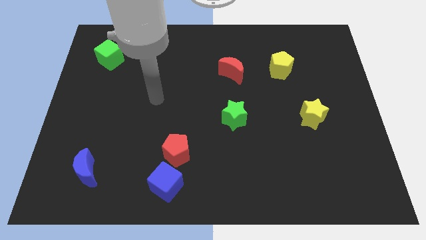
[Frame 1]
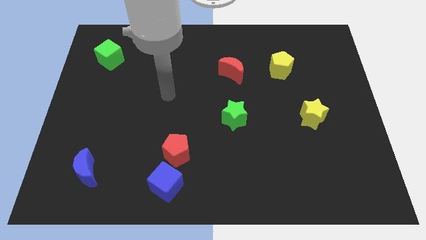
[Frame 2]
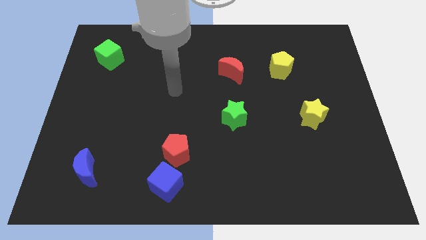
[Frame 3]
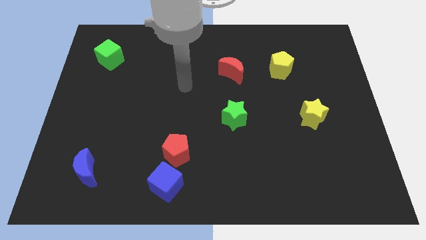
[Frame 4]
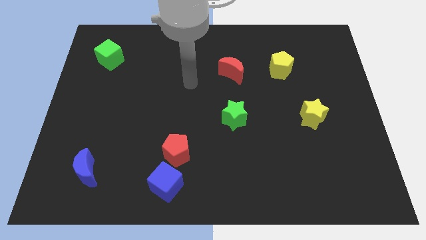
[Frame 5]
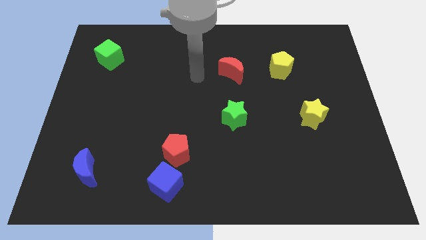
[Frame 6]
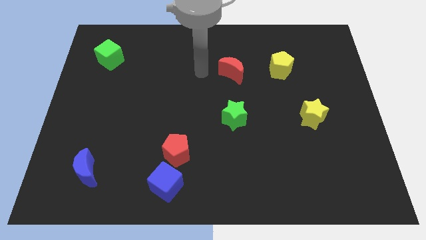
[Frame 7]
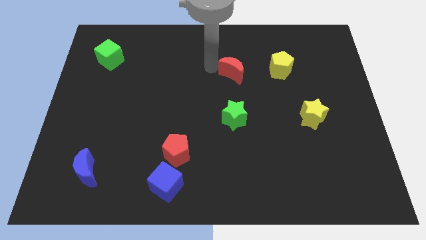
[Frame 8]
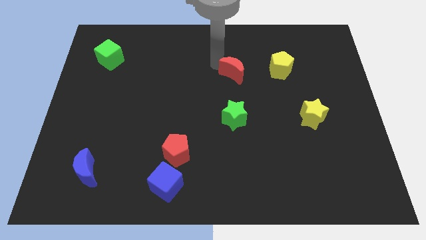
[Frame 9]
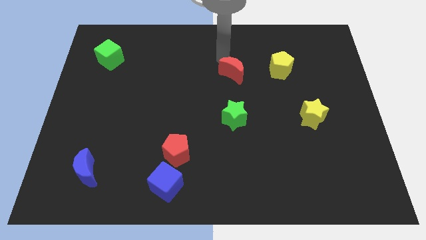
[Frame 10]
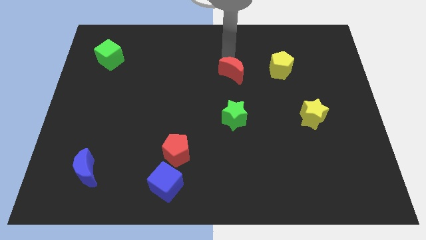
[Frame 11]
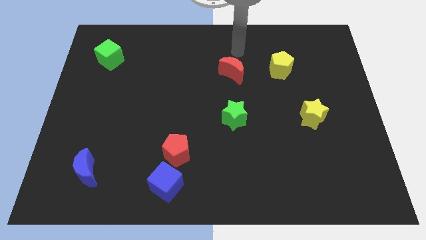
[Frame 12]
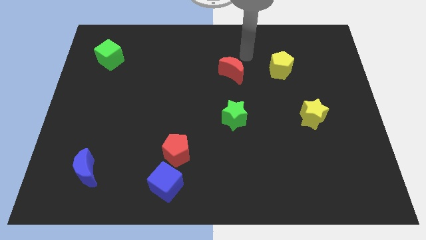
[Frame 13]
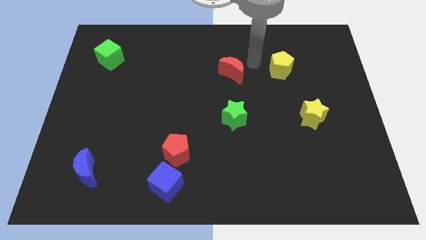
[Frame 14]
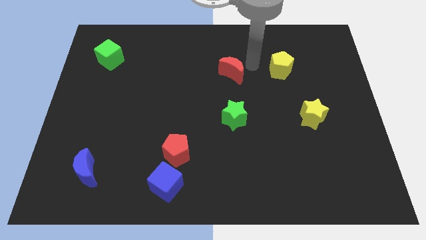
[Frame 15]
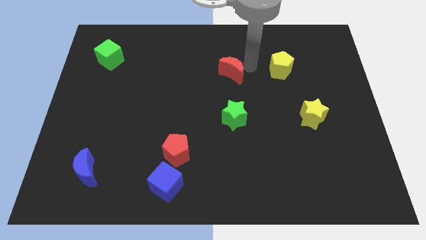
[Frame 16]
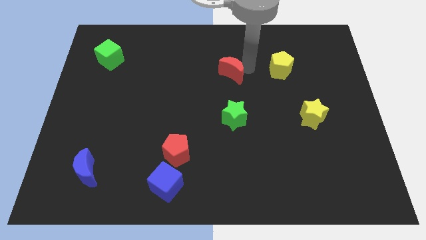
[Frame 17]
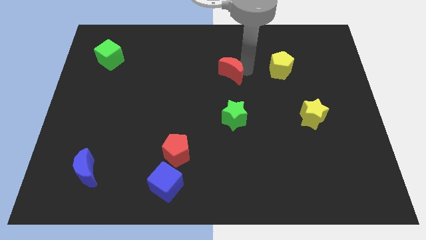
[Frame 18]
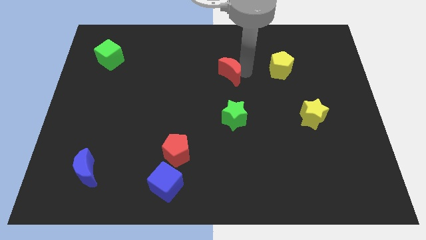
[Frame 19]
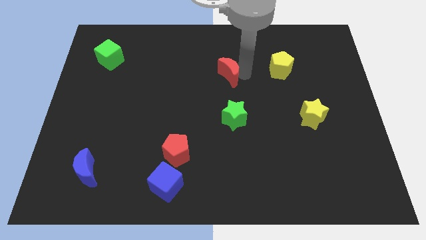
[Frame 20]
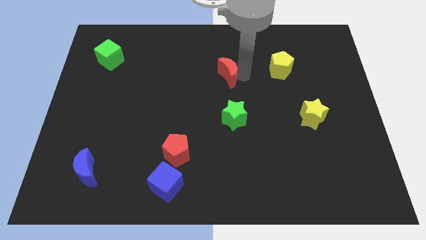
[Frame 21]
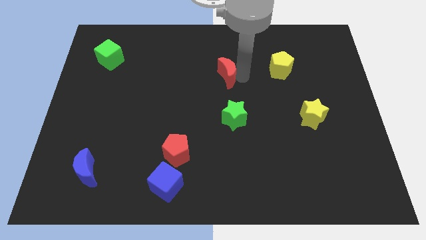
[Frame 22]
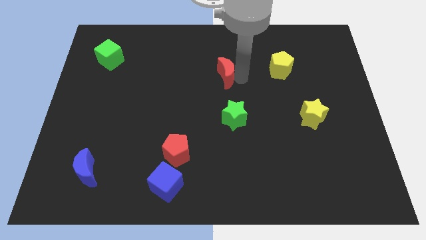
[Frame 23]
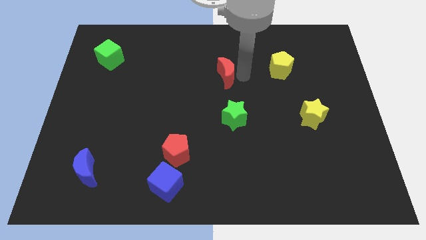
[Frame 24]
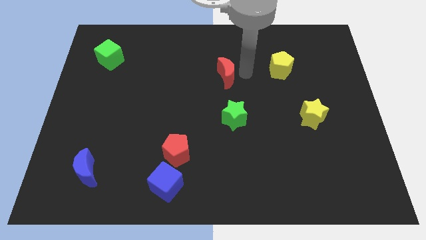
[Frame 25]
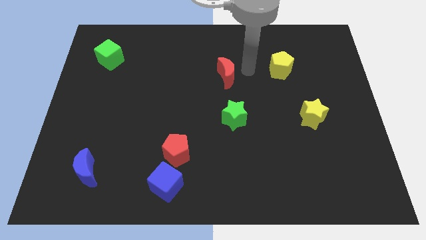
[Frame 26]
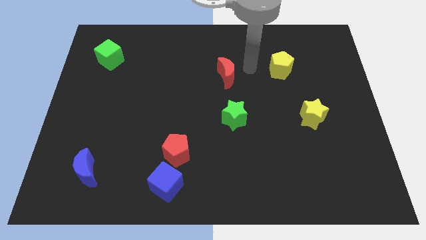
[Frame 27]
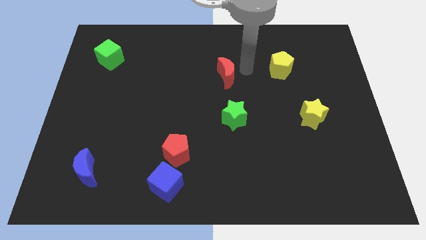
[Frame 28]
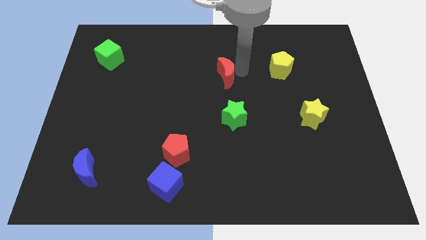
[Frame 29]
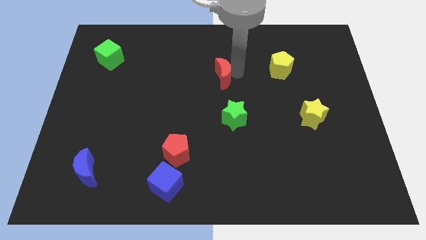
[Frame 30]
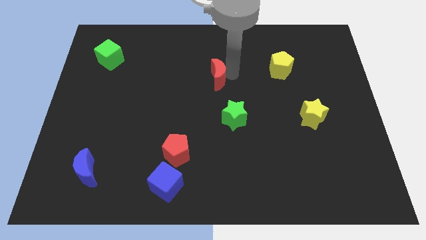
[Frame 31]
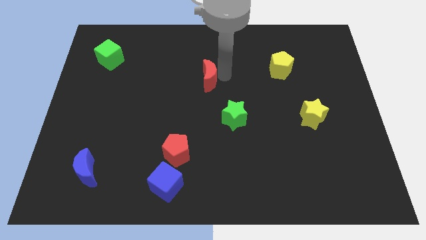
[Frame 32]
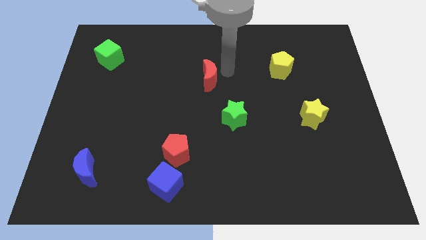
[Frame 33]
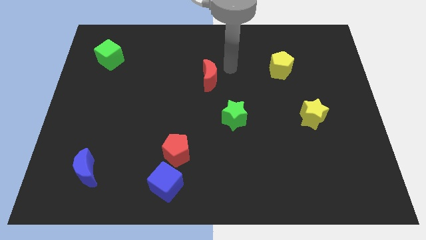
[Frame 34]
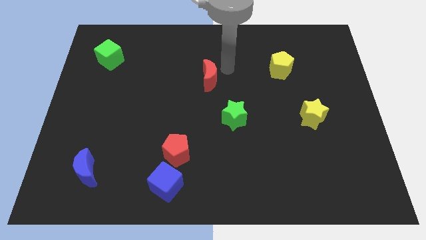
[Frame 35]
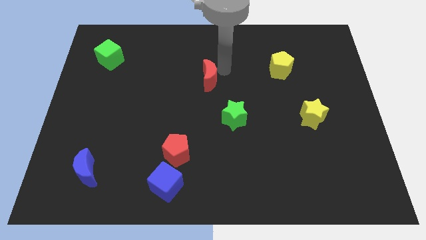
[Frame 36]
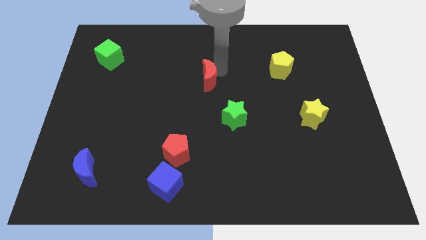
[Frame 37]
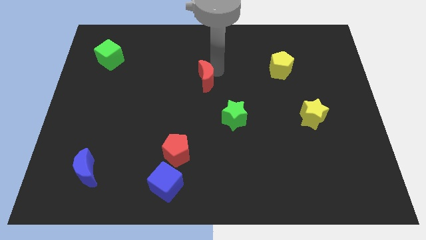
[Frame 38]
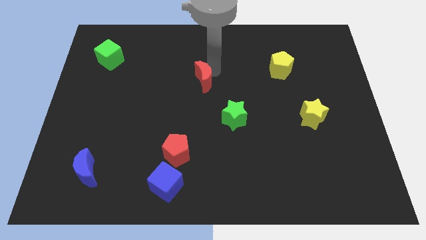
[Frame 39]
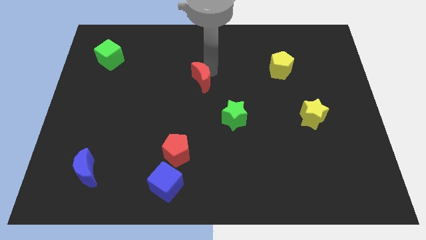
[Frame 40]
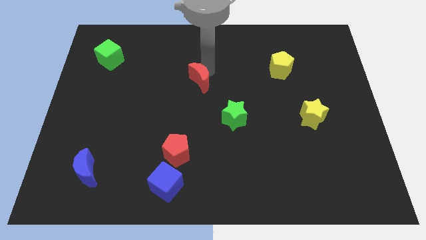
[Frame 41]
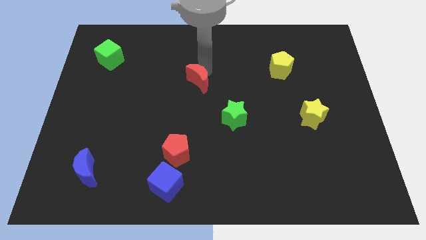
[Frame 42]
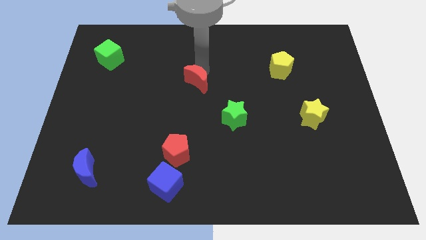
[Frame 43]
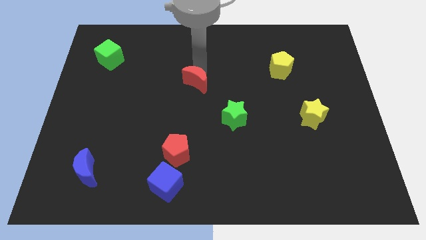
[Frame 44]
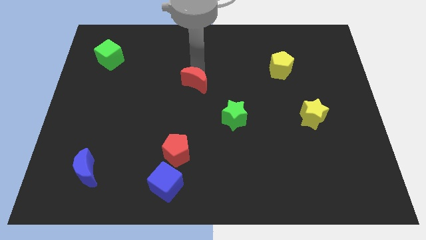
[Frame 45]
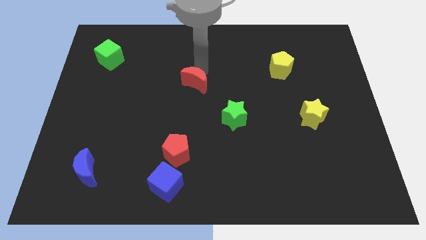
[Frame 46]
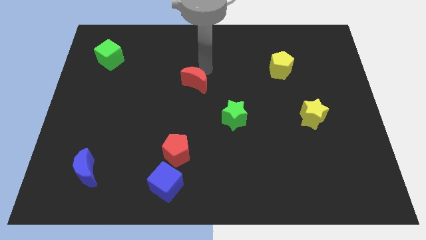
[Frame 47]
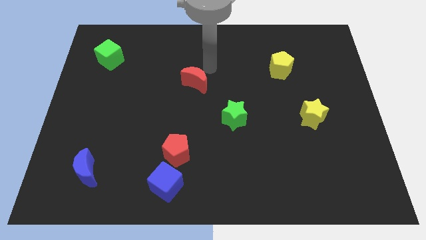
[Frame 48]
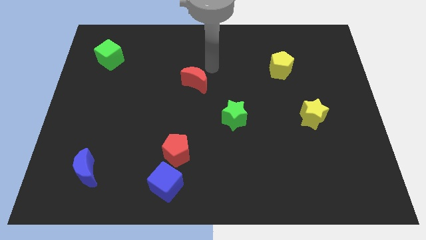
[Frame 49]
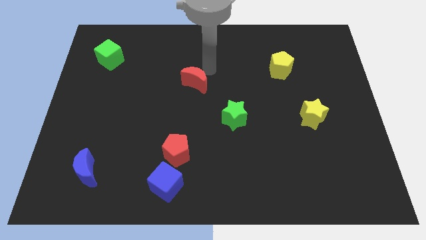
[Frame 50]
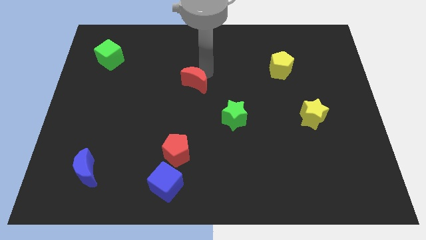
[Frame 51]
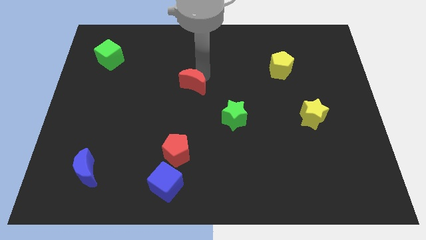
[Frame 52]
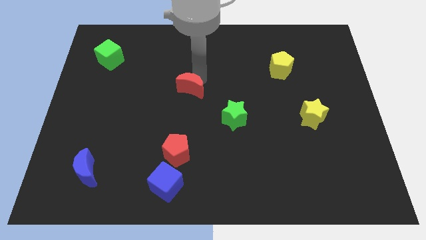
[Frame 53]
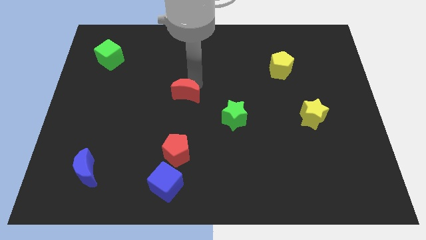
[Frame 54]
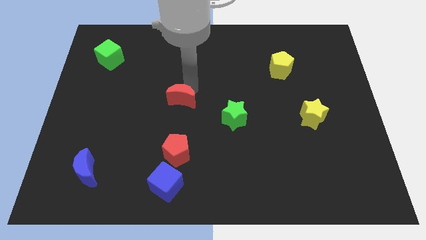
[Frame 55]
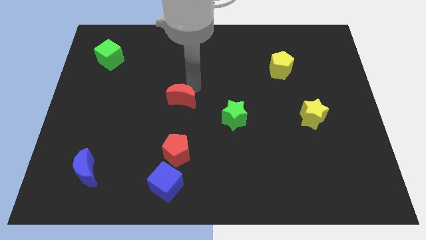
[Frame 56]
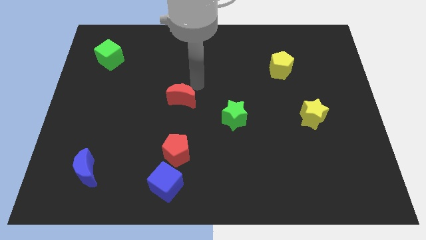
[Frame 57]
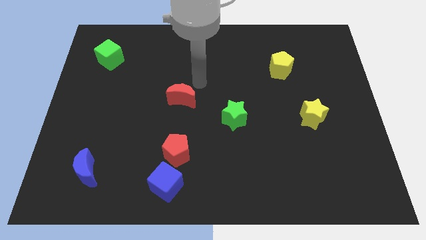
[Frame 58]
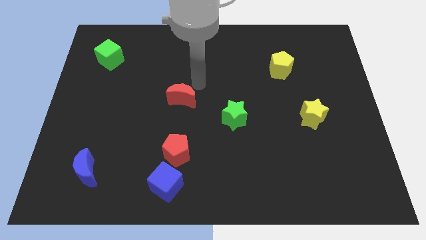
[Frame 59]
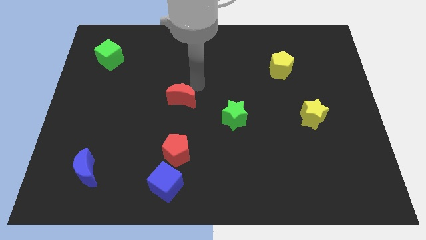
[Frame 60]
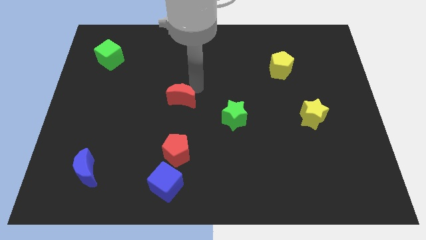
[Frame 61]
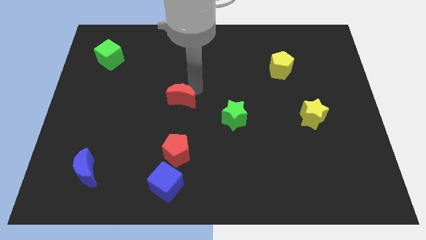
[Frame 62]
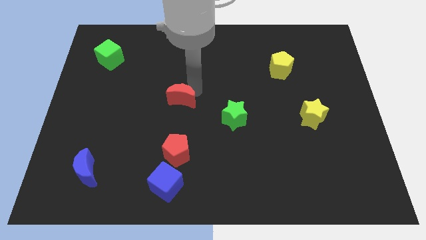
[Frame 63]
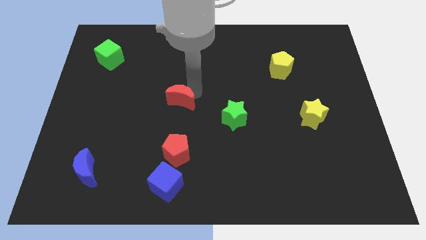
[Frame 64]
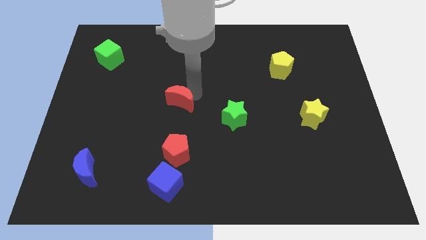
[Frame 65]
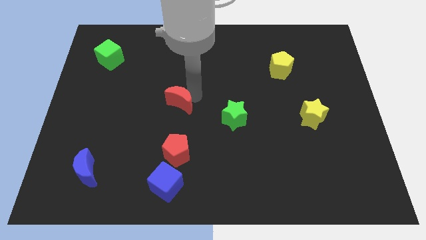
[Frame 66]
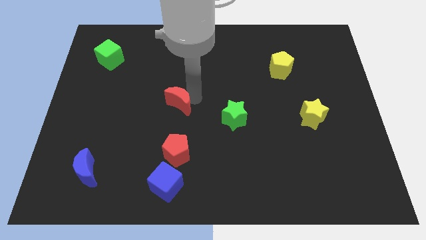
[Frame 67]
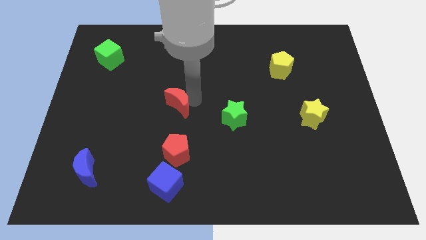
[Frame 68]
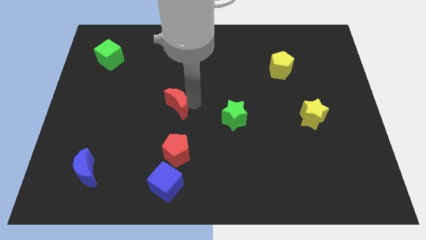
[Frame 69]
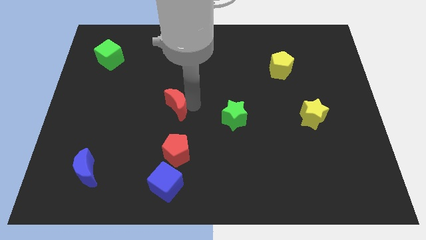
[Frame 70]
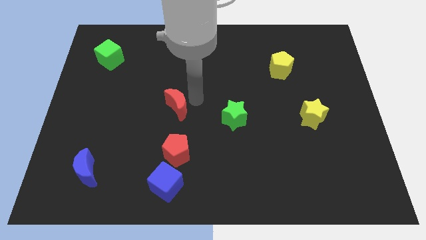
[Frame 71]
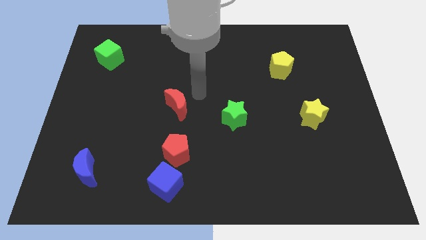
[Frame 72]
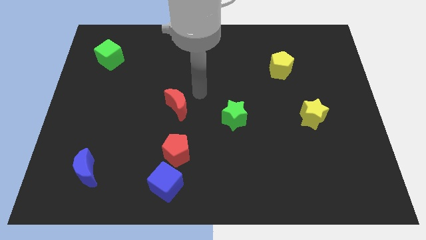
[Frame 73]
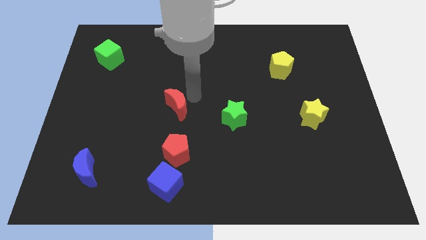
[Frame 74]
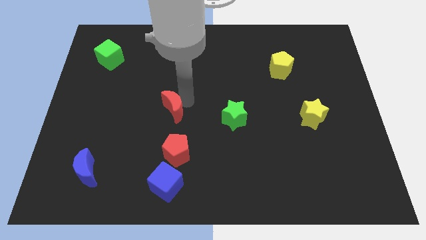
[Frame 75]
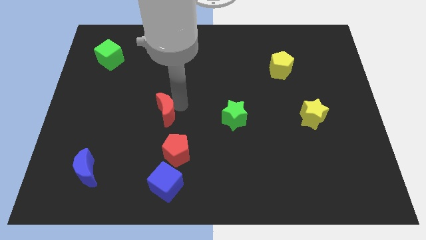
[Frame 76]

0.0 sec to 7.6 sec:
push the red moon down and to the left diagonally

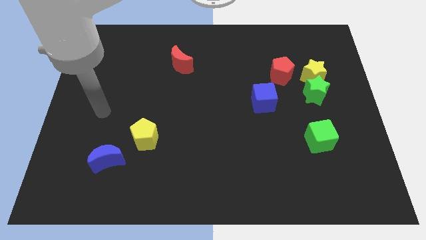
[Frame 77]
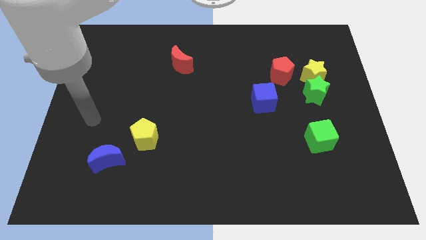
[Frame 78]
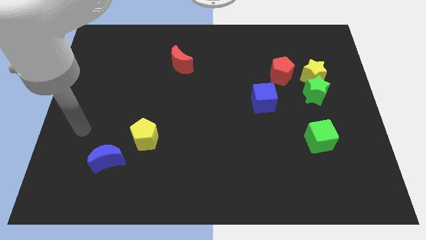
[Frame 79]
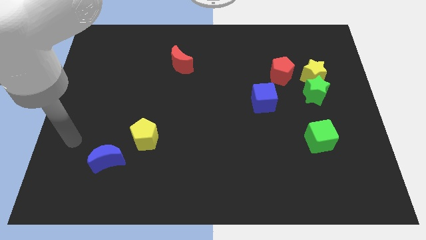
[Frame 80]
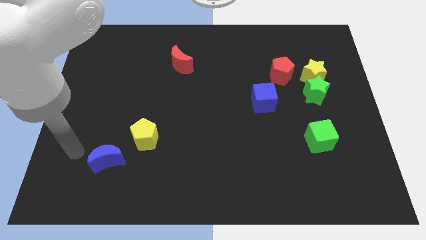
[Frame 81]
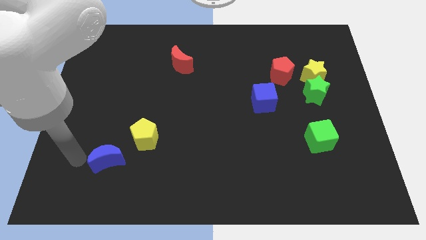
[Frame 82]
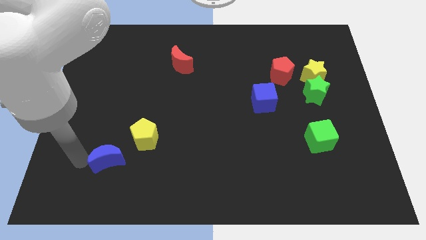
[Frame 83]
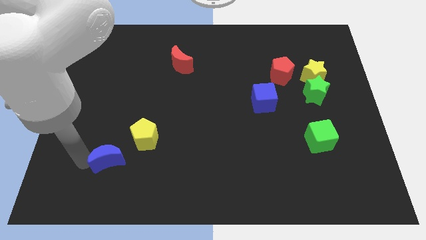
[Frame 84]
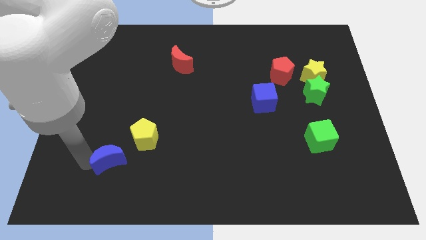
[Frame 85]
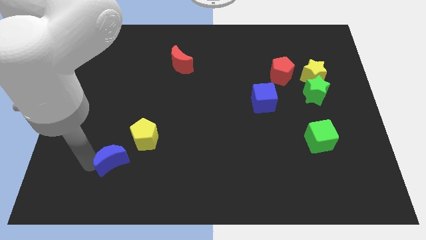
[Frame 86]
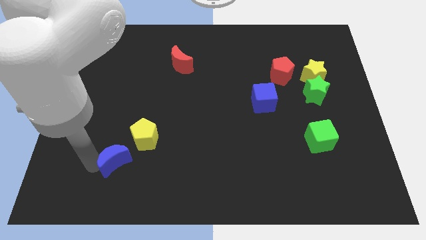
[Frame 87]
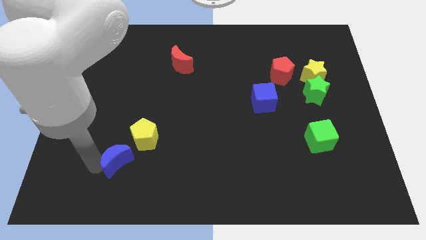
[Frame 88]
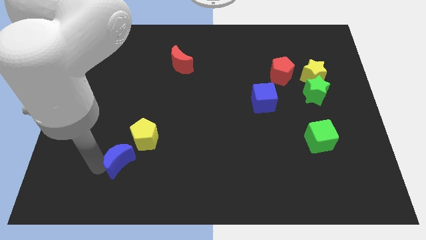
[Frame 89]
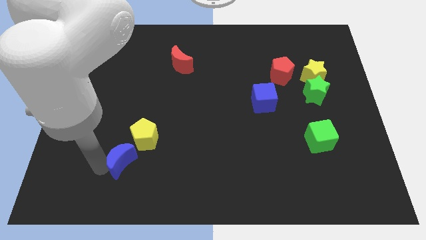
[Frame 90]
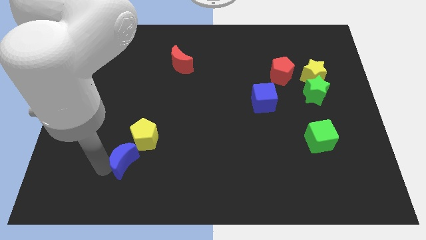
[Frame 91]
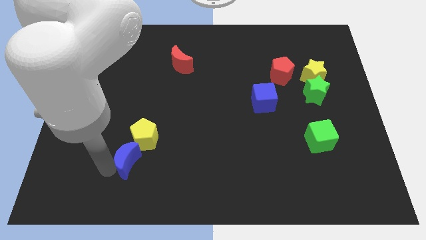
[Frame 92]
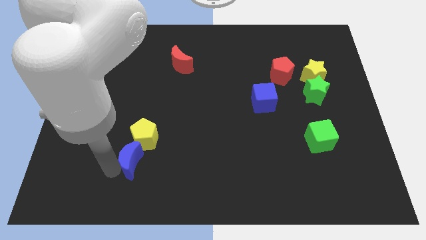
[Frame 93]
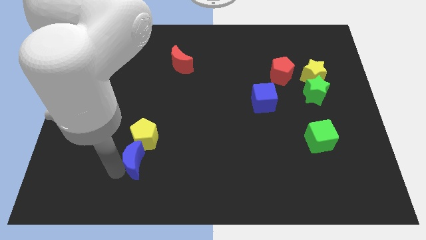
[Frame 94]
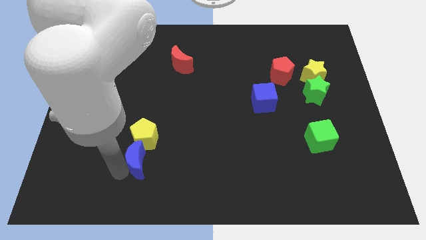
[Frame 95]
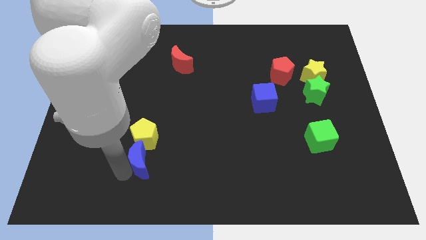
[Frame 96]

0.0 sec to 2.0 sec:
slightly move the blue moon right
